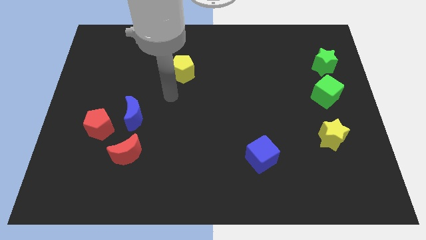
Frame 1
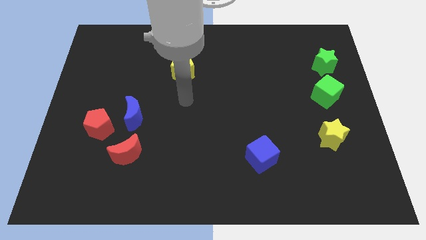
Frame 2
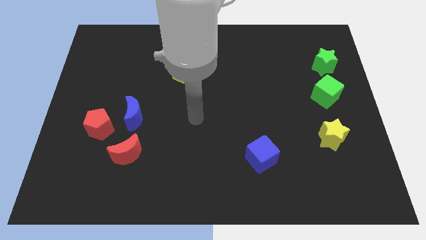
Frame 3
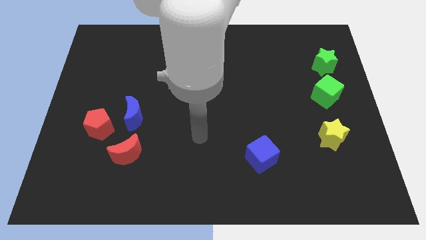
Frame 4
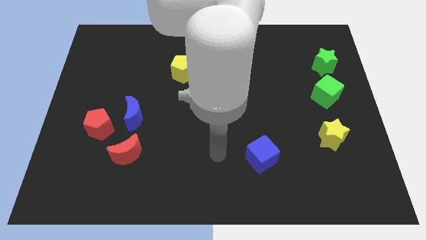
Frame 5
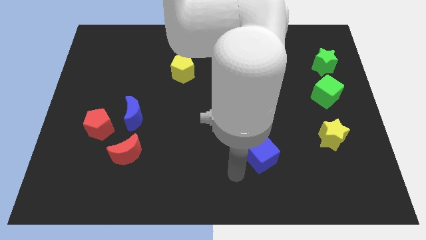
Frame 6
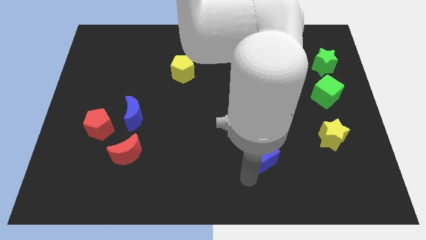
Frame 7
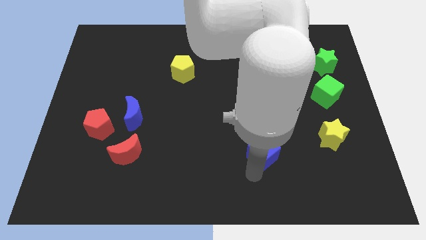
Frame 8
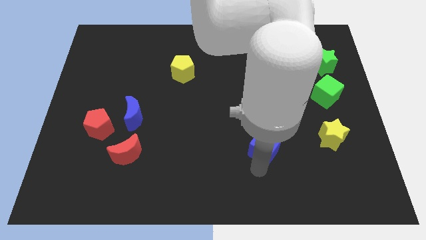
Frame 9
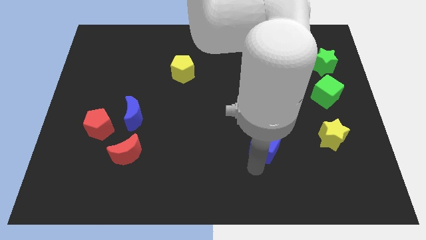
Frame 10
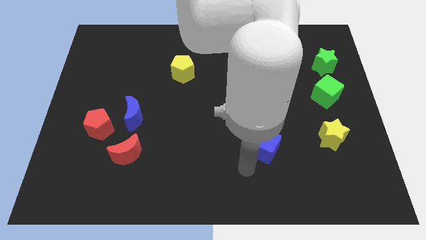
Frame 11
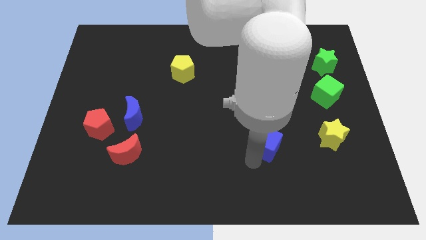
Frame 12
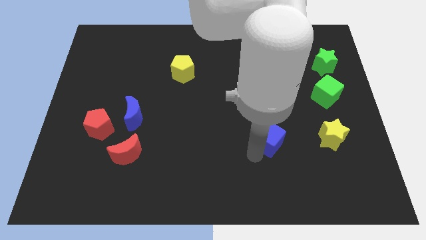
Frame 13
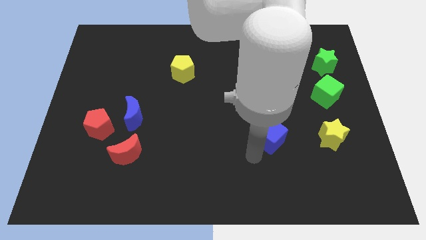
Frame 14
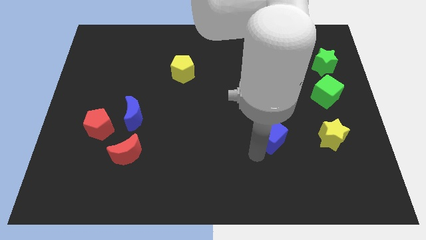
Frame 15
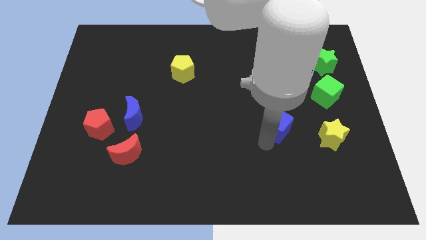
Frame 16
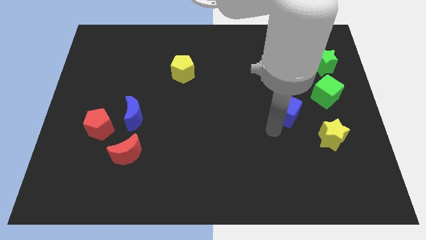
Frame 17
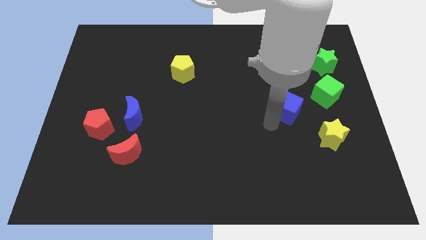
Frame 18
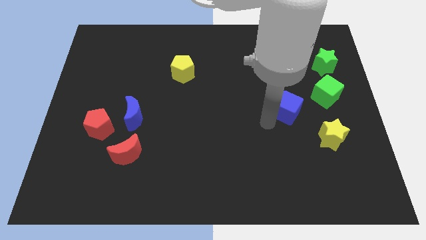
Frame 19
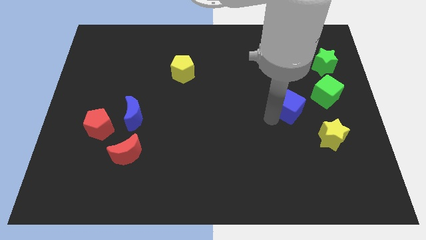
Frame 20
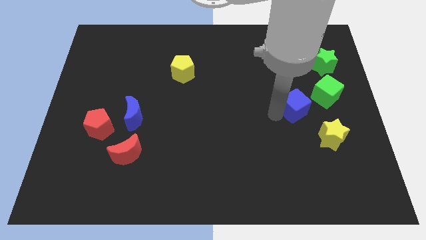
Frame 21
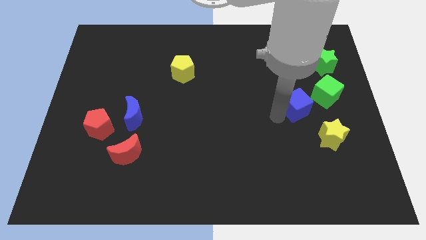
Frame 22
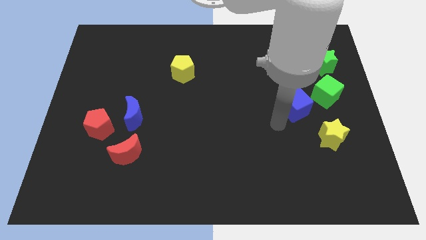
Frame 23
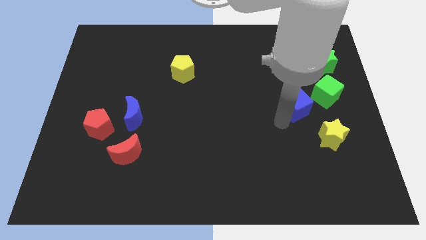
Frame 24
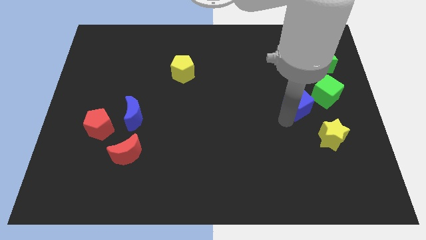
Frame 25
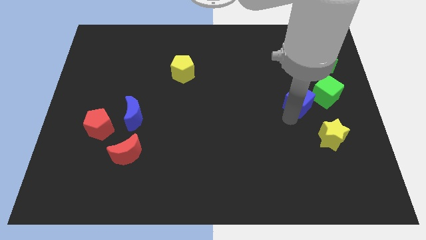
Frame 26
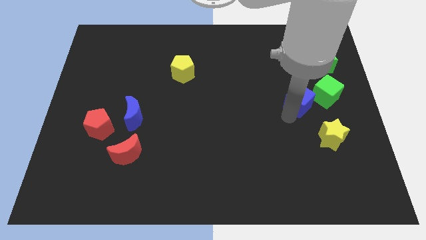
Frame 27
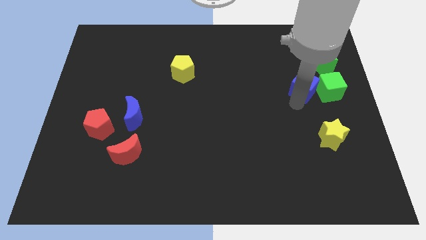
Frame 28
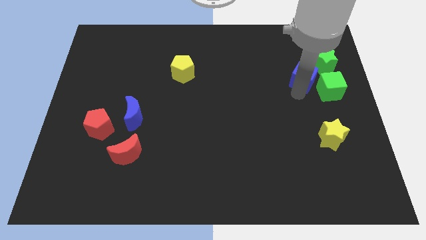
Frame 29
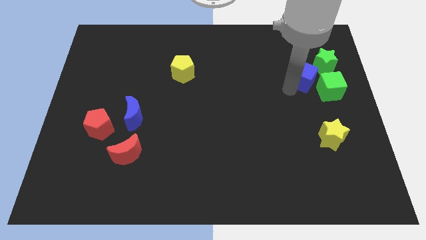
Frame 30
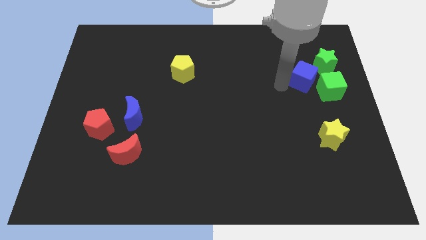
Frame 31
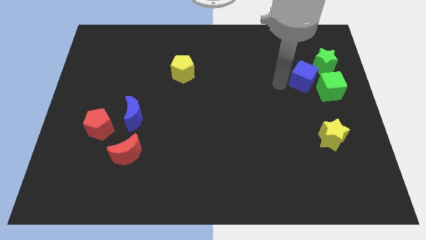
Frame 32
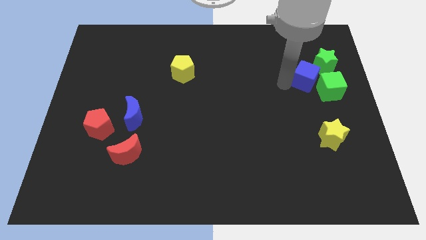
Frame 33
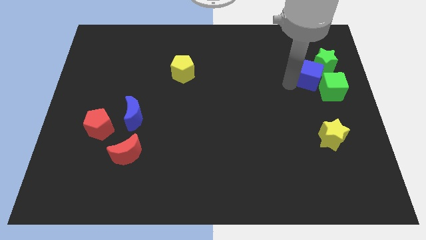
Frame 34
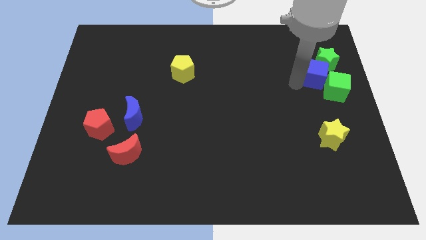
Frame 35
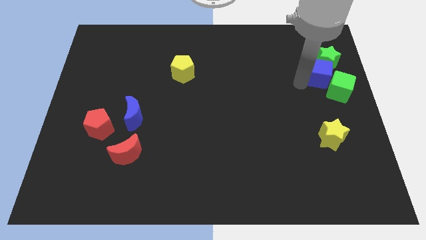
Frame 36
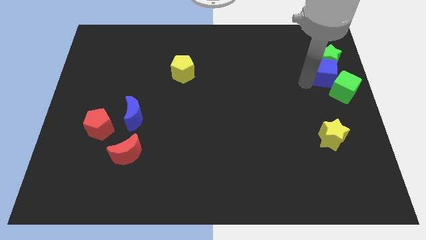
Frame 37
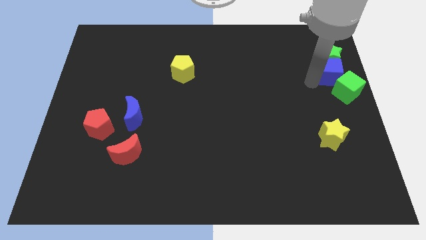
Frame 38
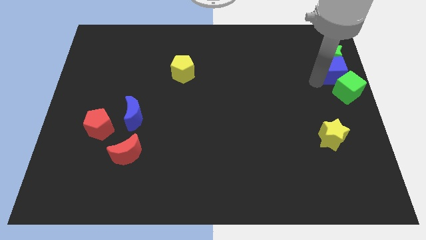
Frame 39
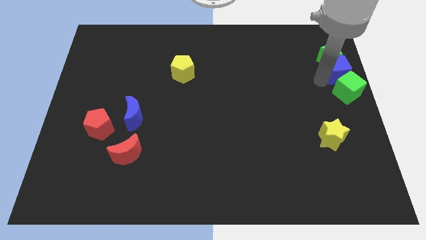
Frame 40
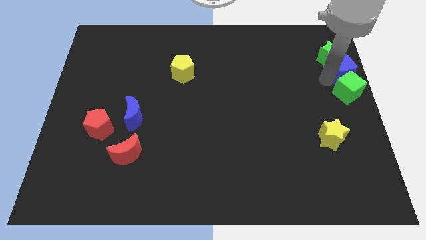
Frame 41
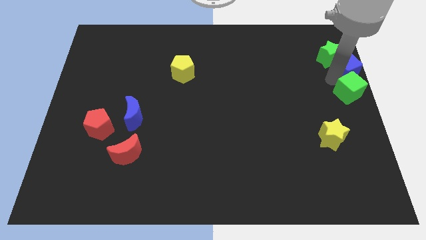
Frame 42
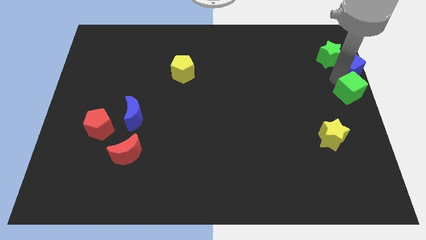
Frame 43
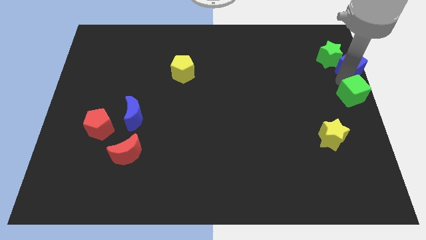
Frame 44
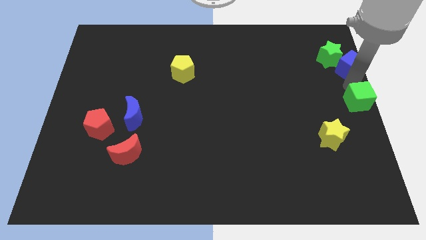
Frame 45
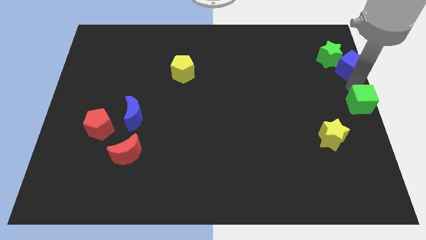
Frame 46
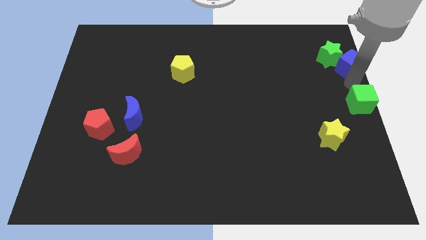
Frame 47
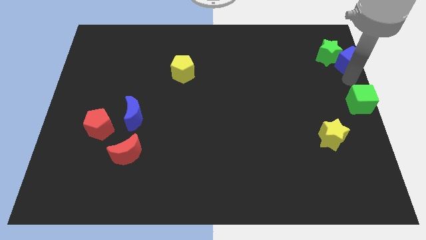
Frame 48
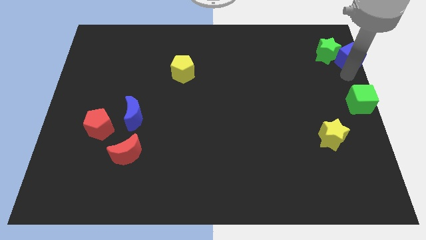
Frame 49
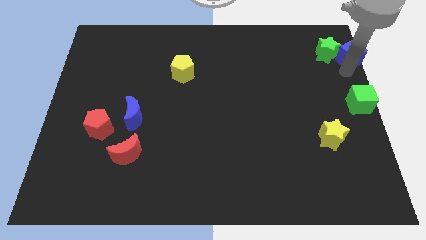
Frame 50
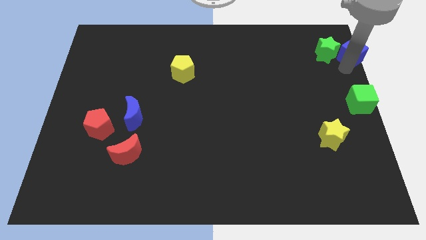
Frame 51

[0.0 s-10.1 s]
push the blue cube to the top right

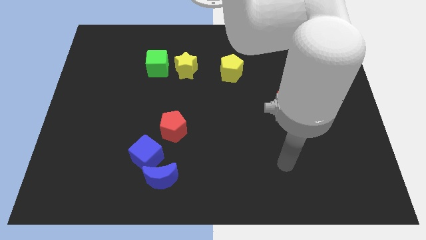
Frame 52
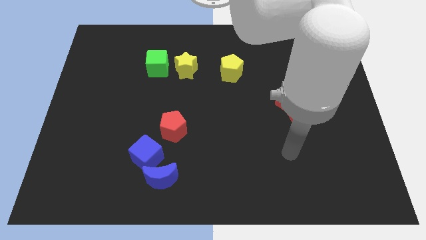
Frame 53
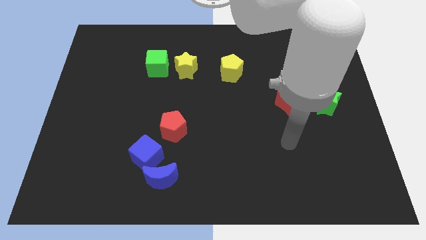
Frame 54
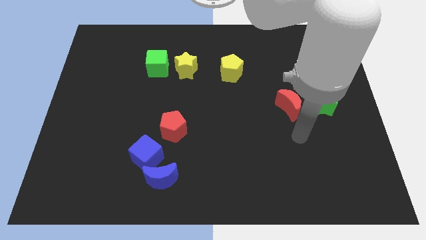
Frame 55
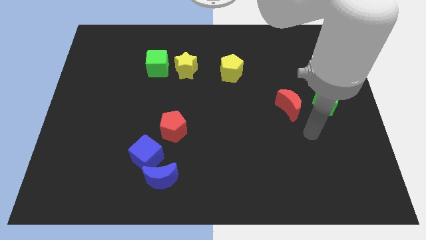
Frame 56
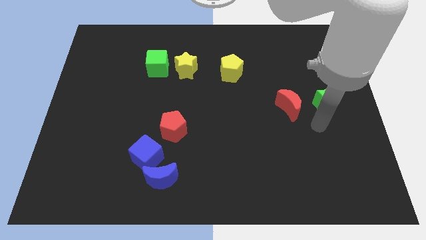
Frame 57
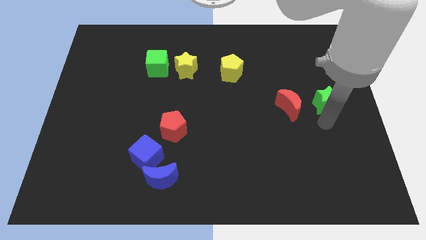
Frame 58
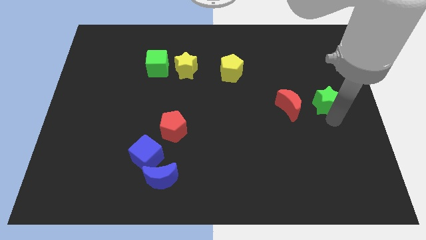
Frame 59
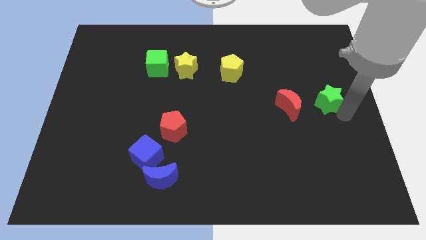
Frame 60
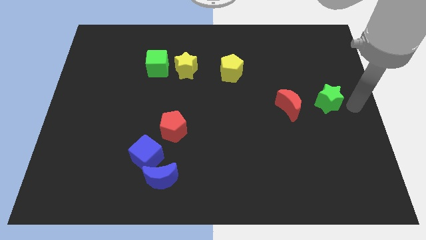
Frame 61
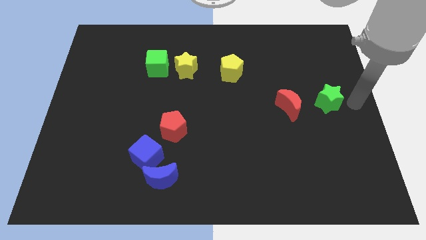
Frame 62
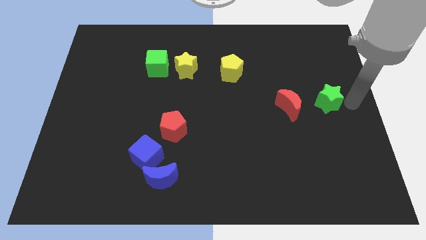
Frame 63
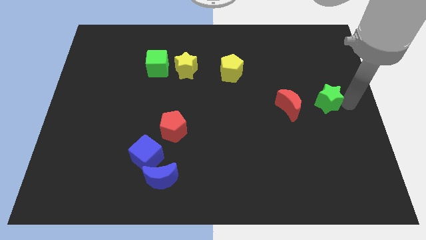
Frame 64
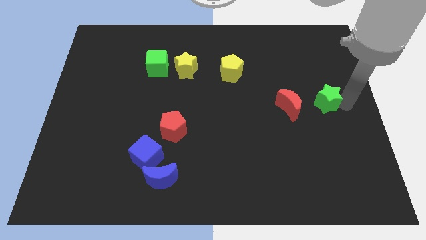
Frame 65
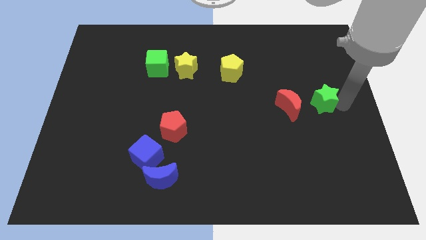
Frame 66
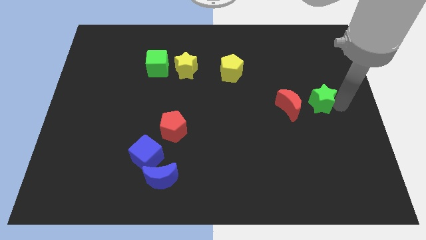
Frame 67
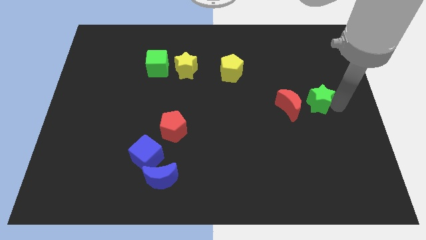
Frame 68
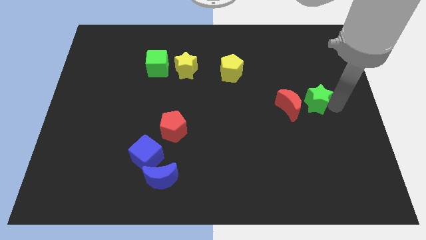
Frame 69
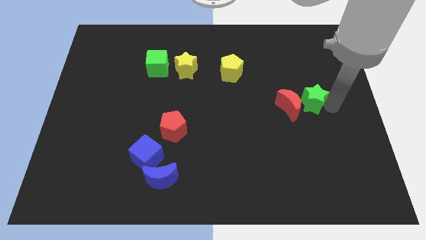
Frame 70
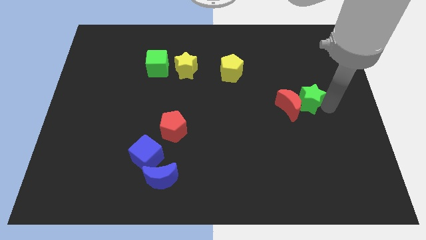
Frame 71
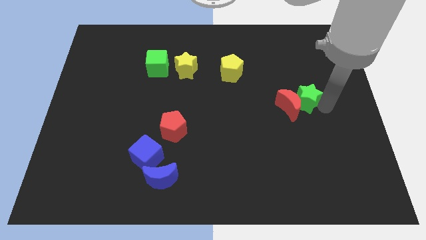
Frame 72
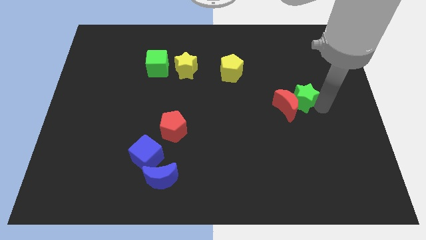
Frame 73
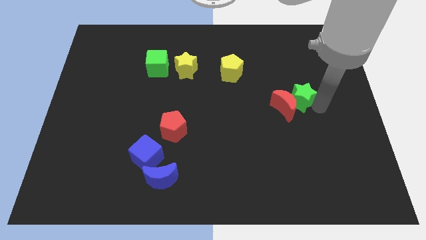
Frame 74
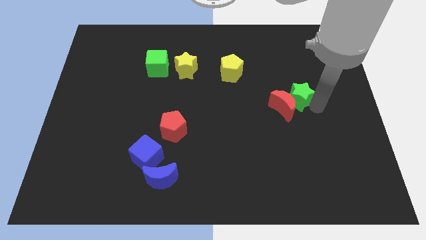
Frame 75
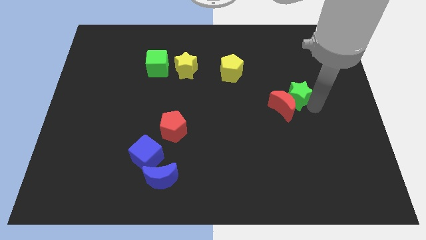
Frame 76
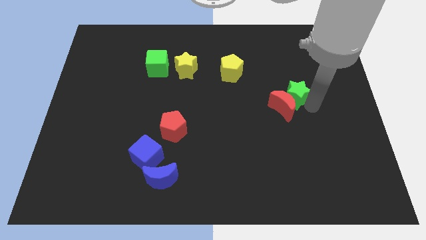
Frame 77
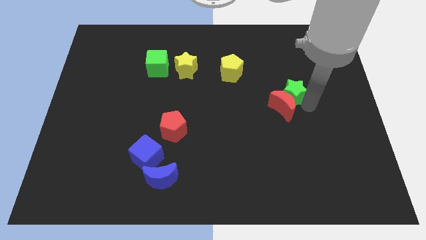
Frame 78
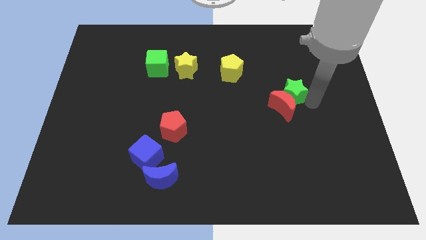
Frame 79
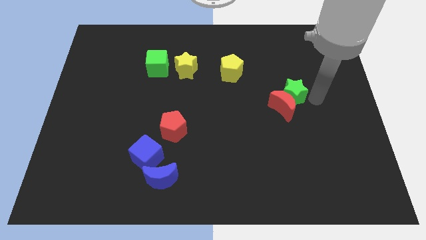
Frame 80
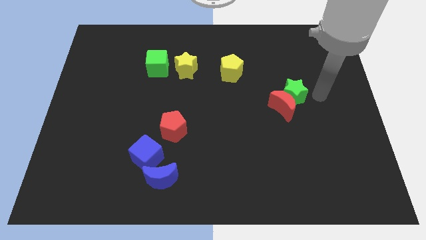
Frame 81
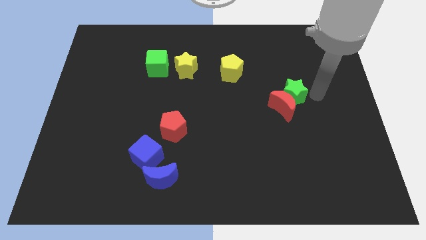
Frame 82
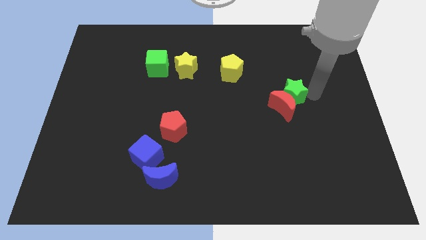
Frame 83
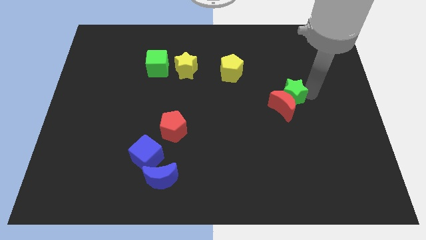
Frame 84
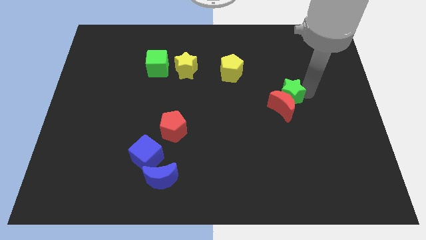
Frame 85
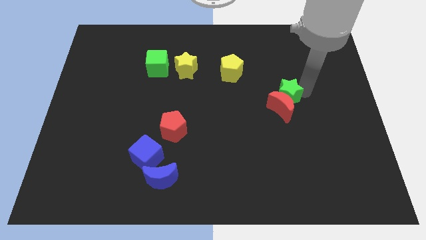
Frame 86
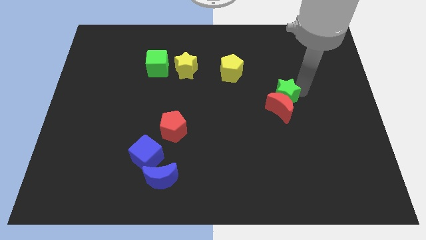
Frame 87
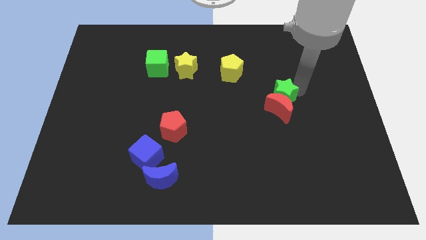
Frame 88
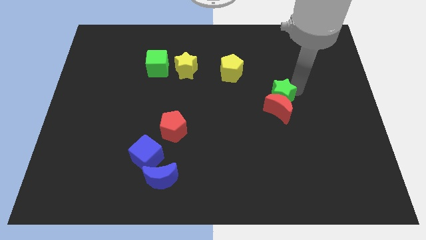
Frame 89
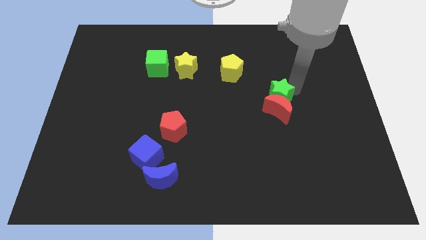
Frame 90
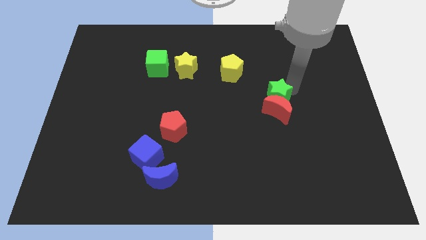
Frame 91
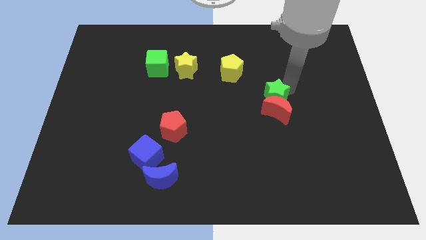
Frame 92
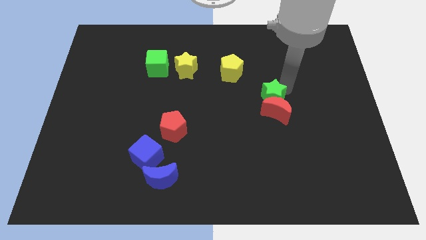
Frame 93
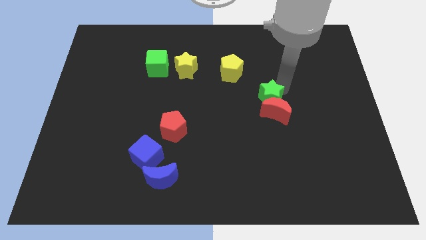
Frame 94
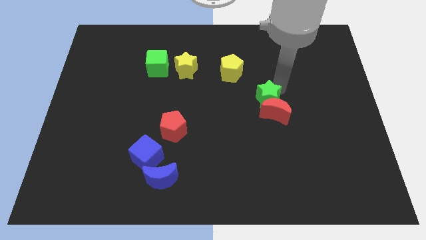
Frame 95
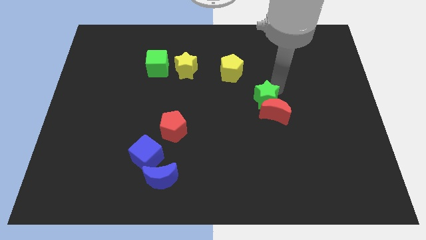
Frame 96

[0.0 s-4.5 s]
move the green star to the center
